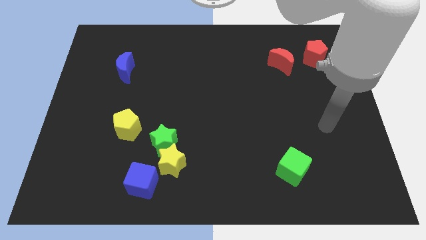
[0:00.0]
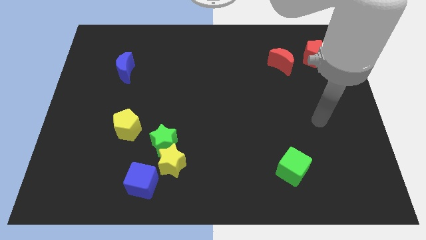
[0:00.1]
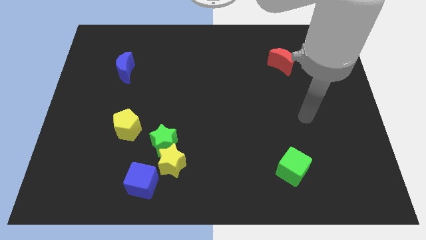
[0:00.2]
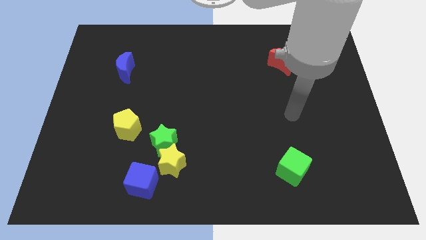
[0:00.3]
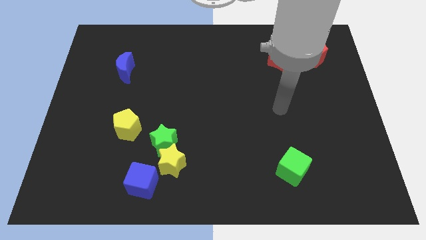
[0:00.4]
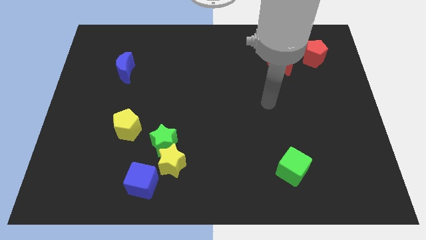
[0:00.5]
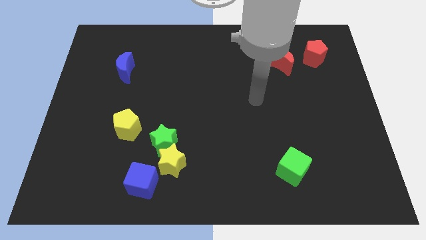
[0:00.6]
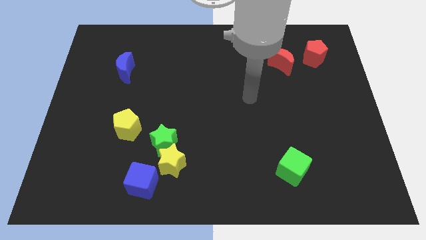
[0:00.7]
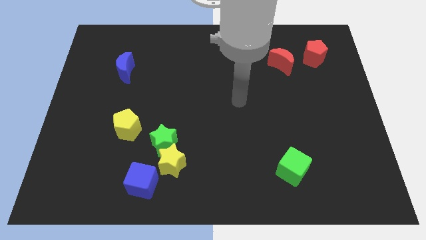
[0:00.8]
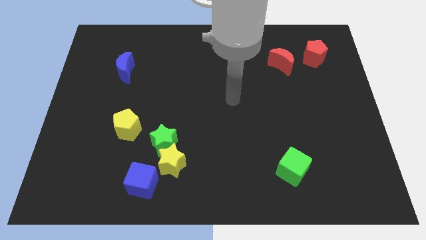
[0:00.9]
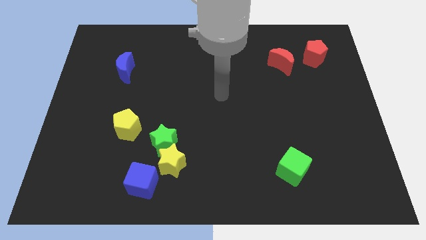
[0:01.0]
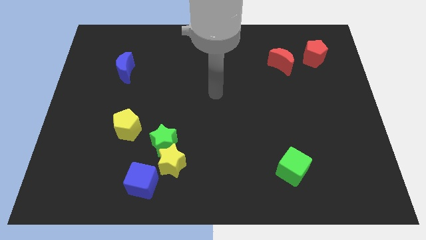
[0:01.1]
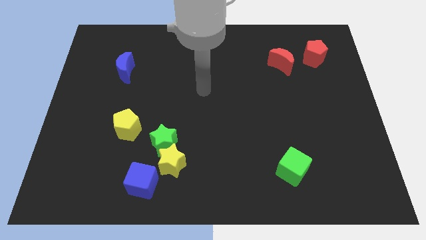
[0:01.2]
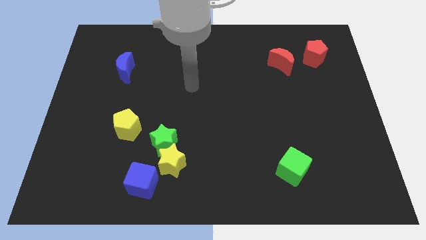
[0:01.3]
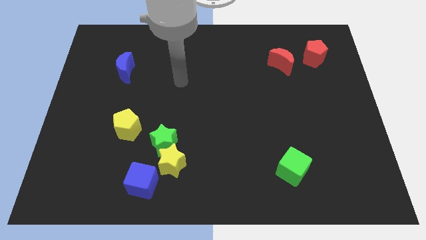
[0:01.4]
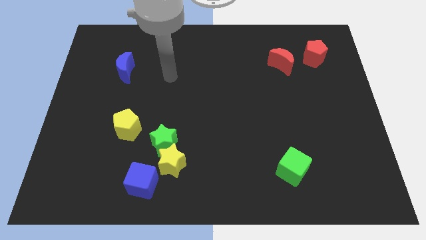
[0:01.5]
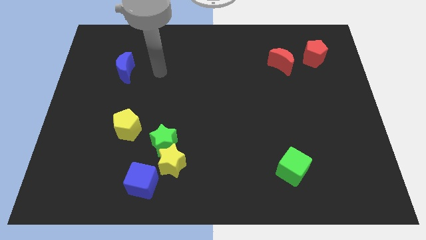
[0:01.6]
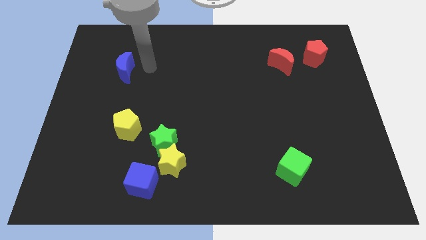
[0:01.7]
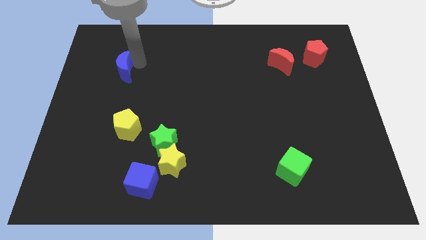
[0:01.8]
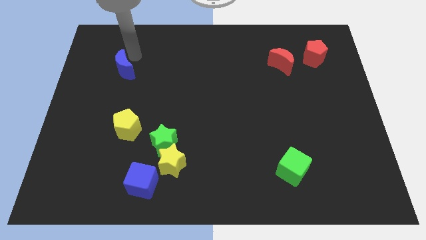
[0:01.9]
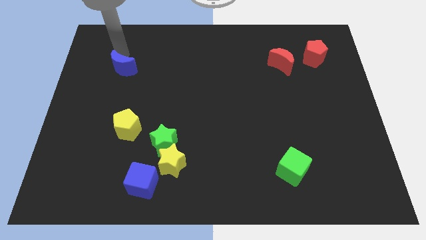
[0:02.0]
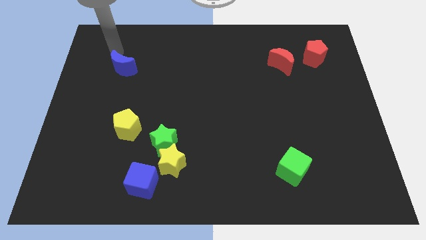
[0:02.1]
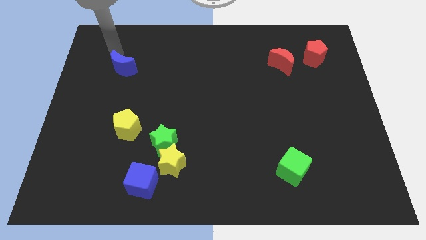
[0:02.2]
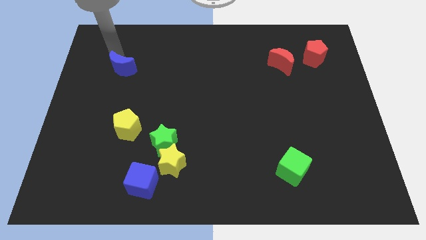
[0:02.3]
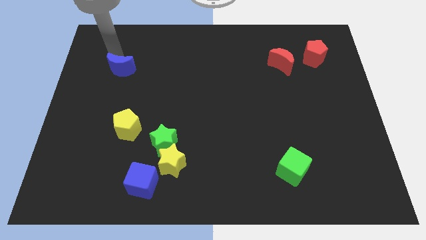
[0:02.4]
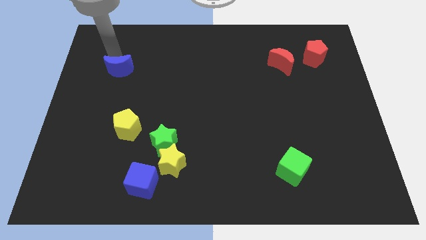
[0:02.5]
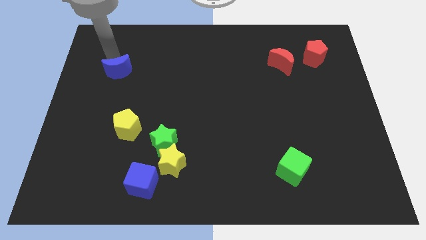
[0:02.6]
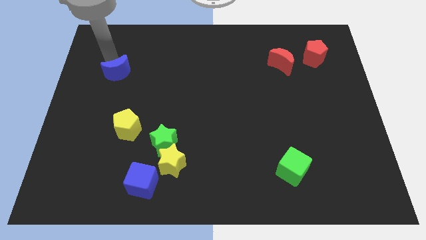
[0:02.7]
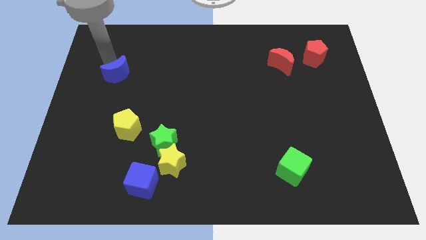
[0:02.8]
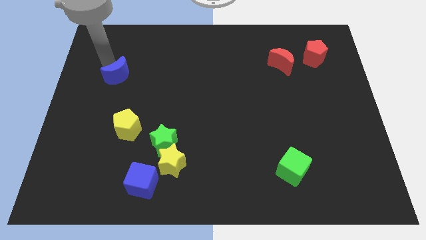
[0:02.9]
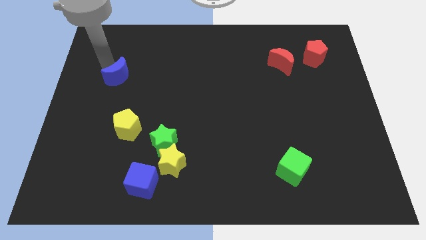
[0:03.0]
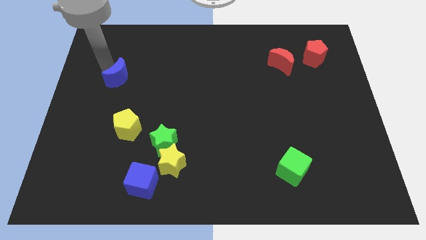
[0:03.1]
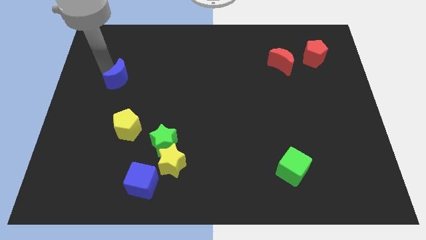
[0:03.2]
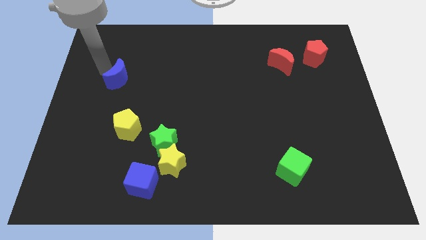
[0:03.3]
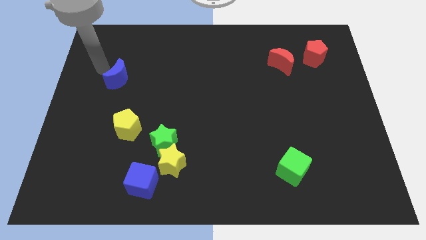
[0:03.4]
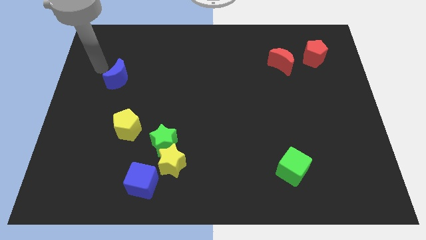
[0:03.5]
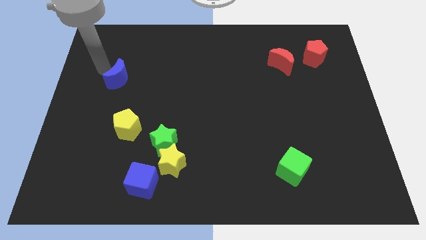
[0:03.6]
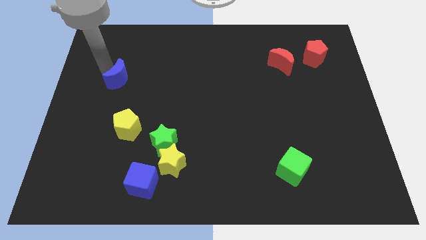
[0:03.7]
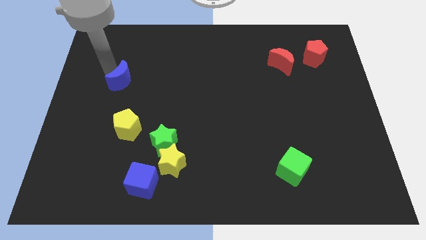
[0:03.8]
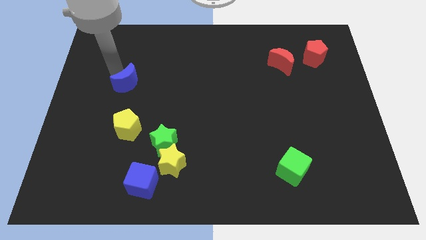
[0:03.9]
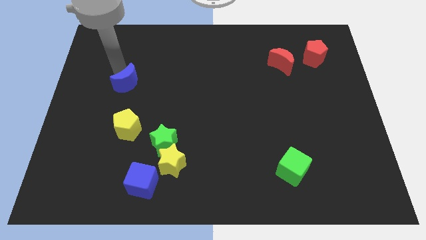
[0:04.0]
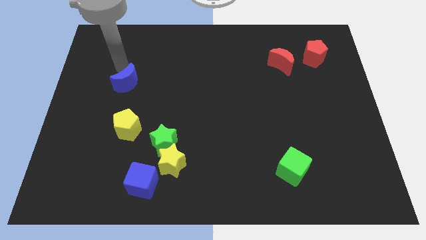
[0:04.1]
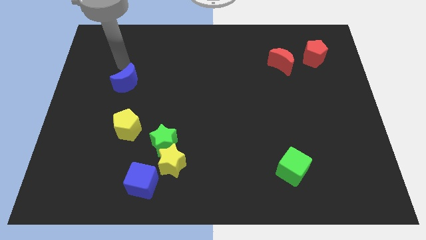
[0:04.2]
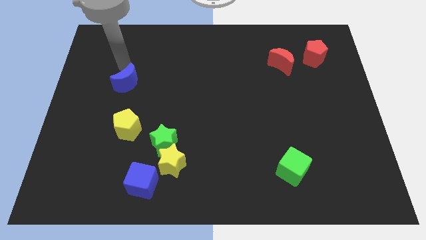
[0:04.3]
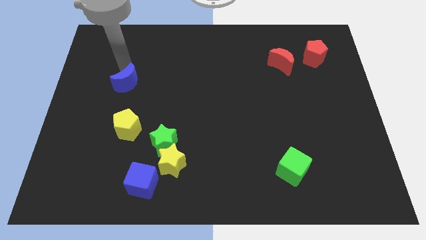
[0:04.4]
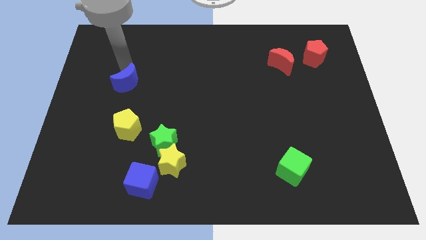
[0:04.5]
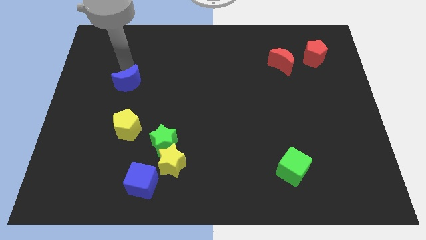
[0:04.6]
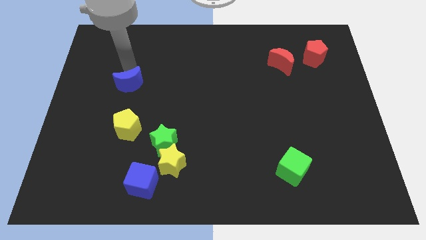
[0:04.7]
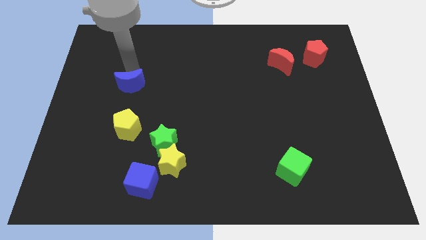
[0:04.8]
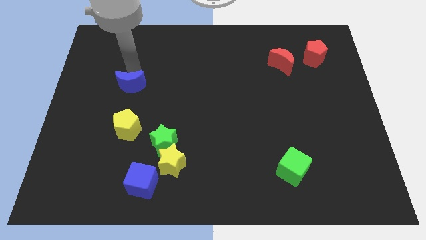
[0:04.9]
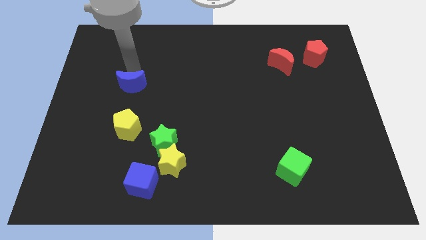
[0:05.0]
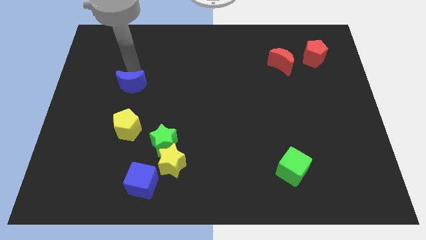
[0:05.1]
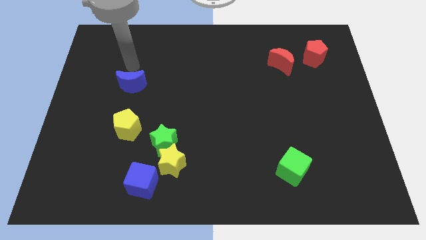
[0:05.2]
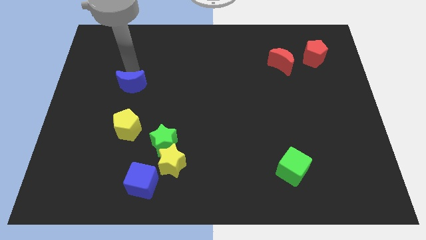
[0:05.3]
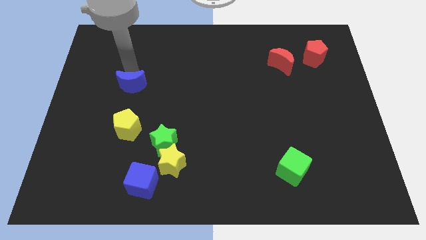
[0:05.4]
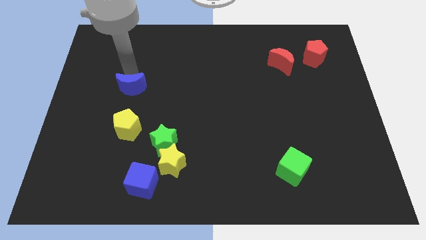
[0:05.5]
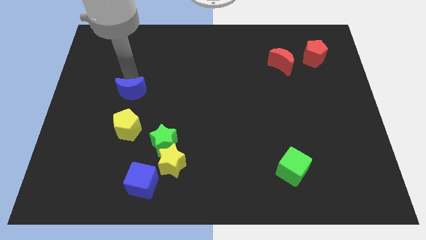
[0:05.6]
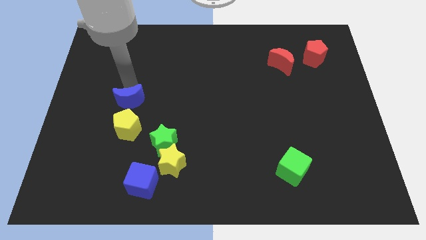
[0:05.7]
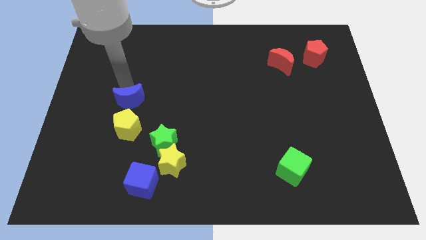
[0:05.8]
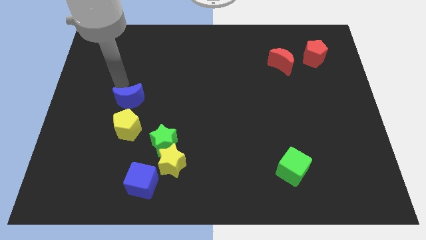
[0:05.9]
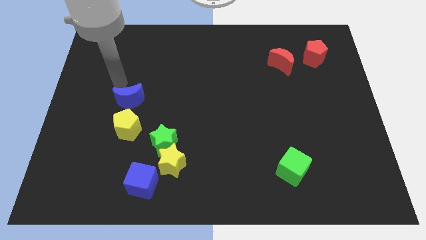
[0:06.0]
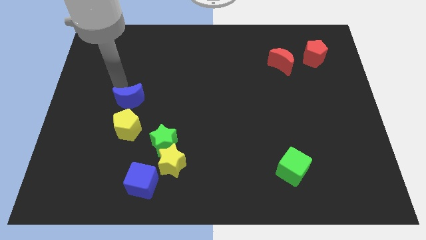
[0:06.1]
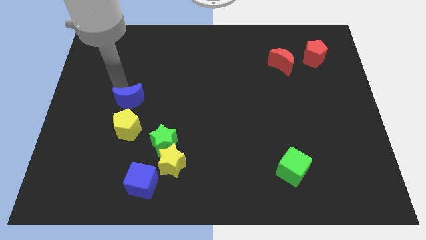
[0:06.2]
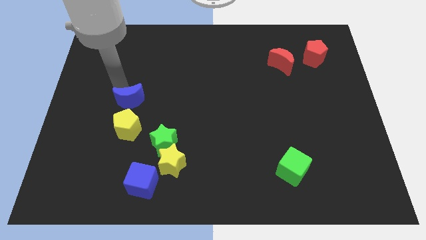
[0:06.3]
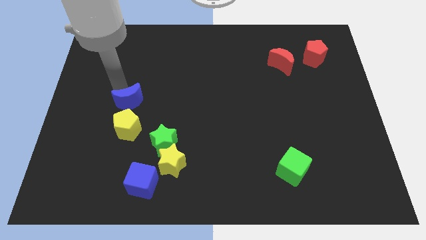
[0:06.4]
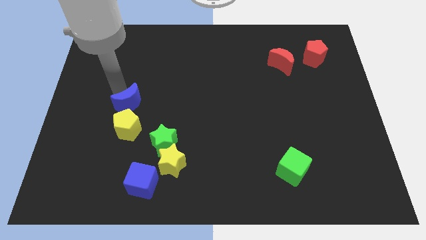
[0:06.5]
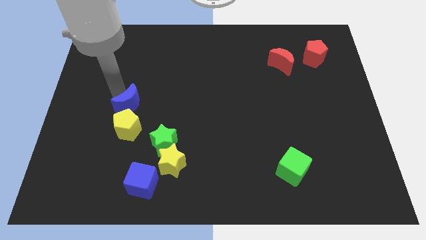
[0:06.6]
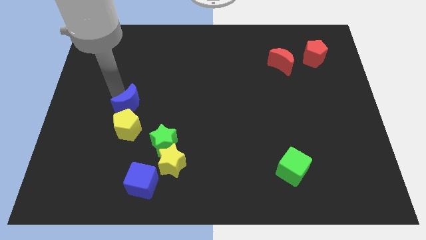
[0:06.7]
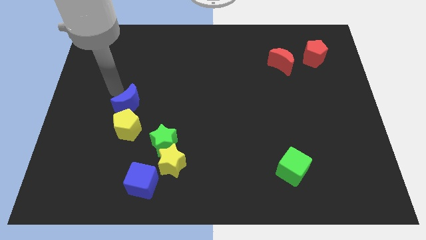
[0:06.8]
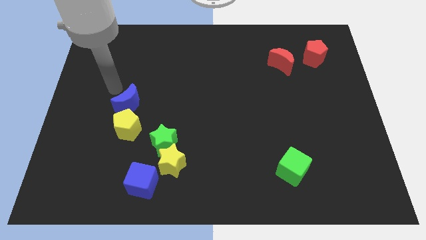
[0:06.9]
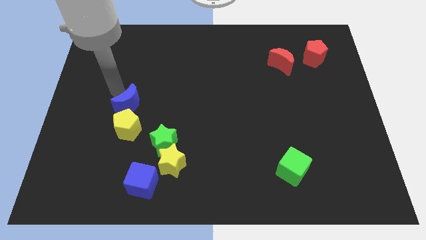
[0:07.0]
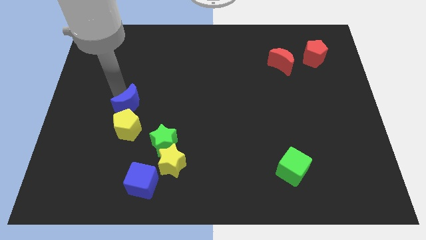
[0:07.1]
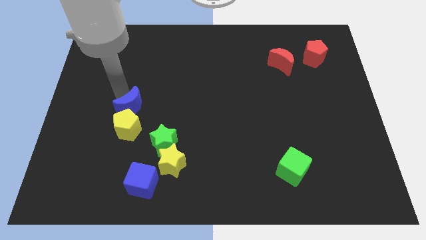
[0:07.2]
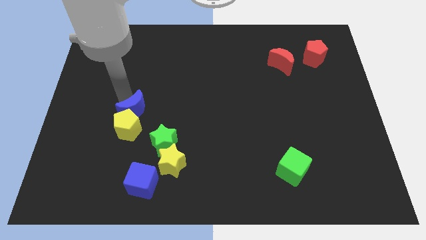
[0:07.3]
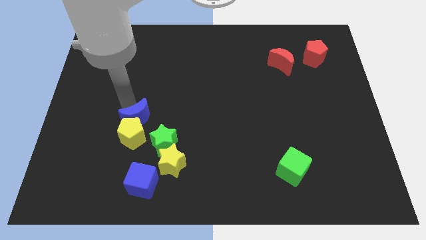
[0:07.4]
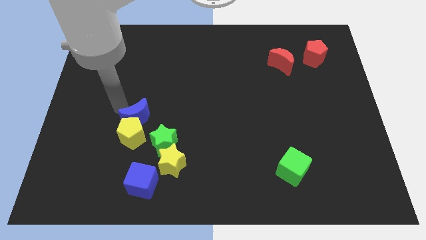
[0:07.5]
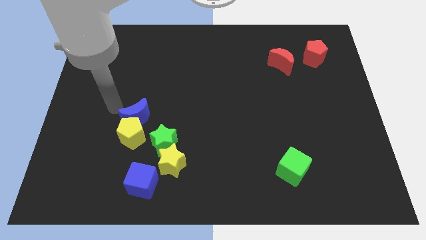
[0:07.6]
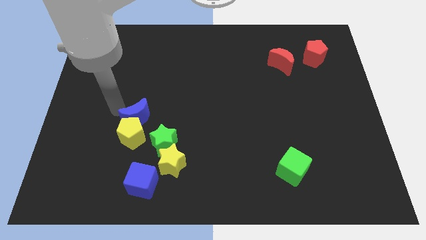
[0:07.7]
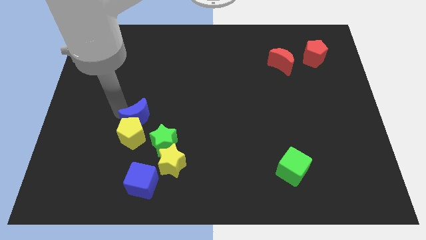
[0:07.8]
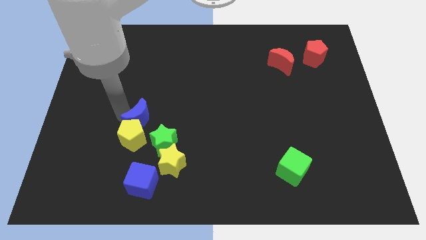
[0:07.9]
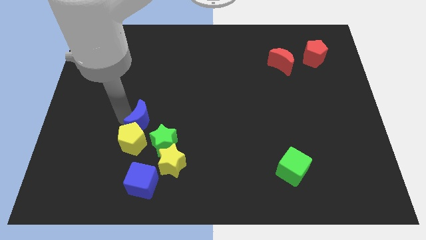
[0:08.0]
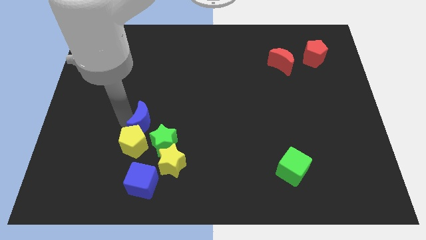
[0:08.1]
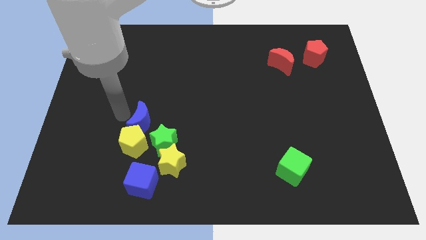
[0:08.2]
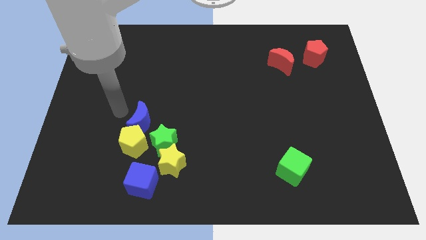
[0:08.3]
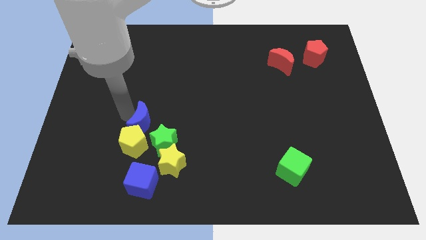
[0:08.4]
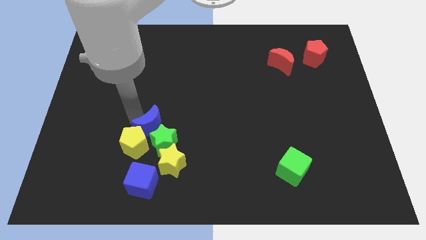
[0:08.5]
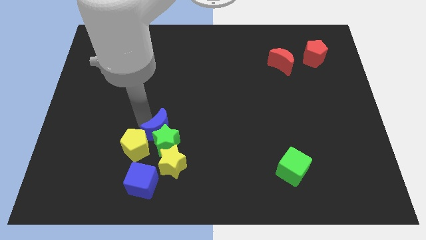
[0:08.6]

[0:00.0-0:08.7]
slide the blue moon to the right of the yellow pentagon

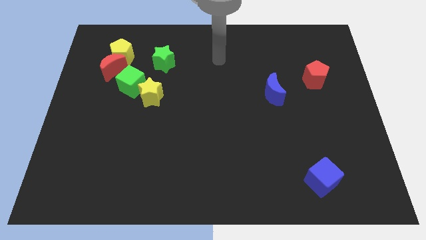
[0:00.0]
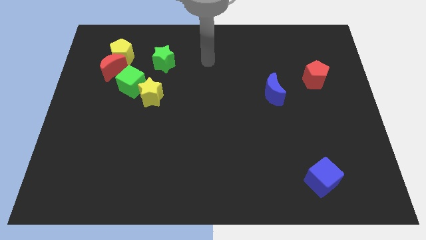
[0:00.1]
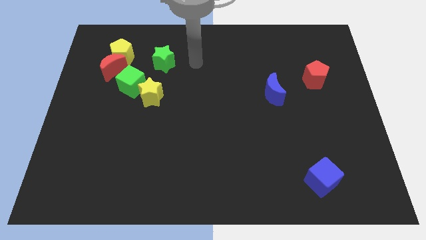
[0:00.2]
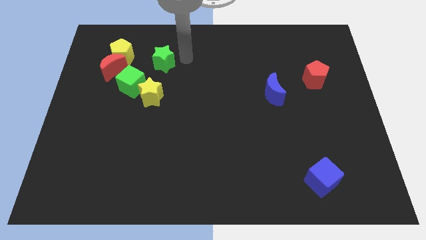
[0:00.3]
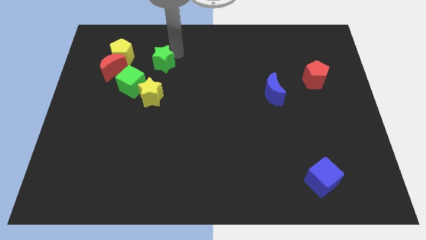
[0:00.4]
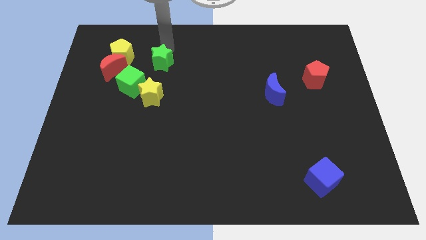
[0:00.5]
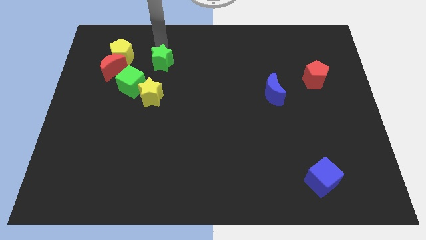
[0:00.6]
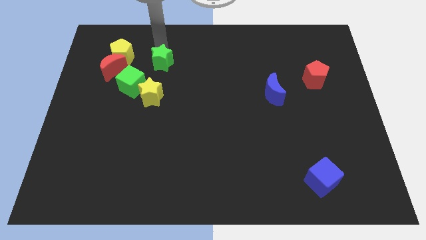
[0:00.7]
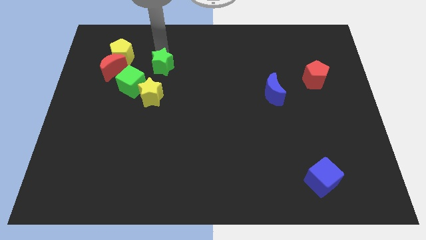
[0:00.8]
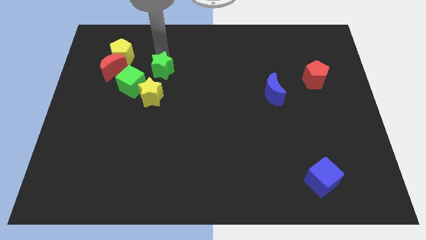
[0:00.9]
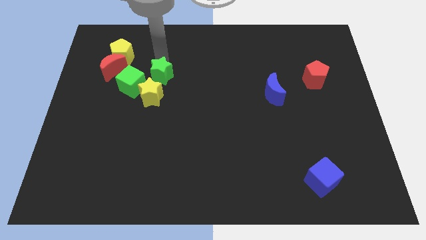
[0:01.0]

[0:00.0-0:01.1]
slide the green star to the right of the green cube
